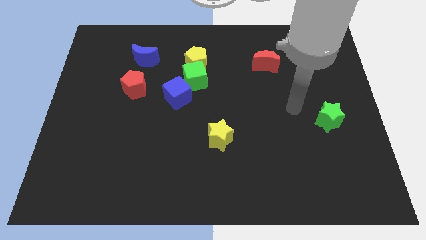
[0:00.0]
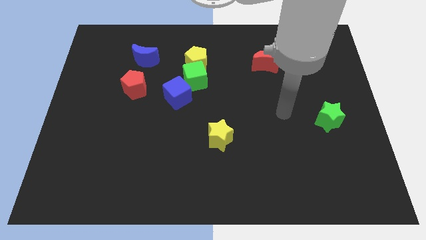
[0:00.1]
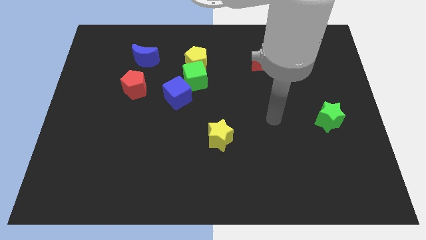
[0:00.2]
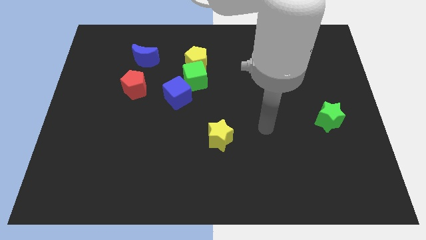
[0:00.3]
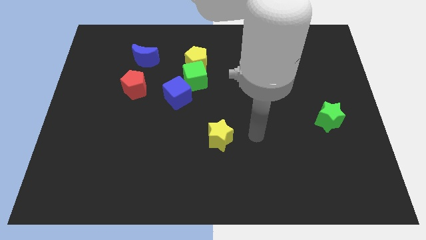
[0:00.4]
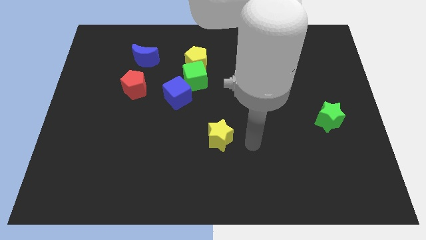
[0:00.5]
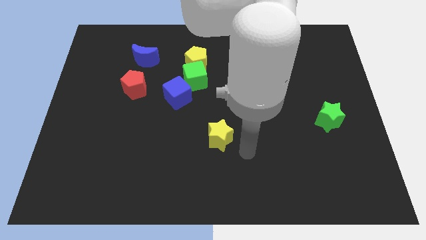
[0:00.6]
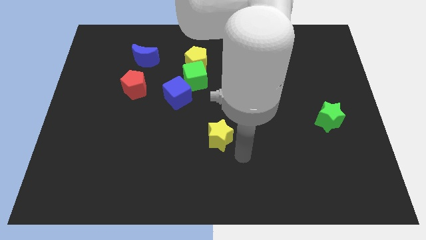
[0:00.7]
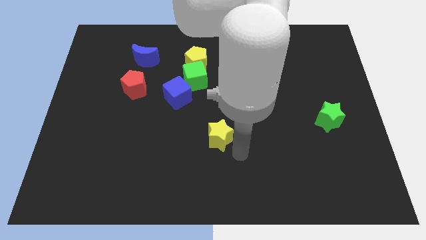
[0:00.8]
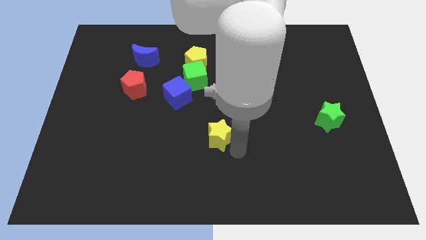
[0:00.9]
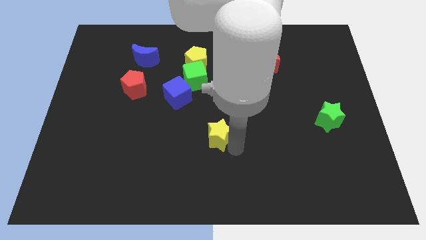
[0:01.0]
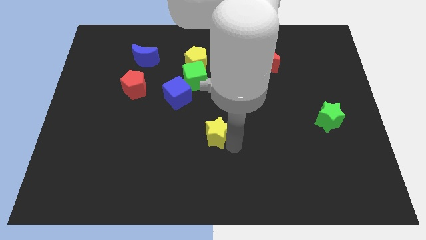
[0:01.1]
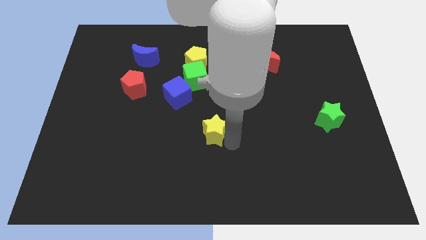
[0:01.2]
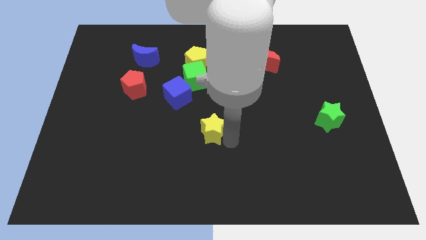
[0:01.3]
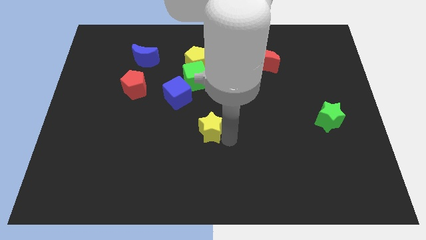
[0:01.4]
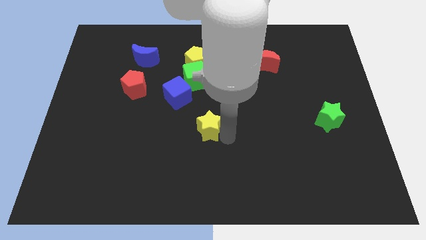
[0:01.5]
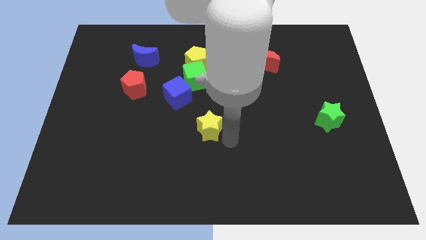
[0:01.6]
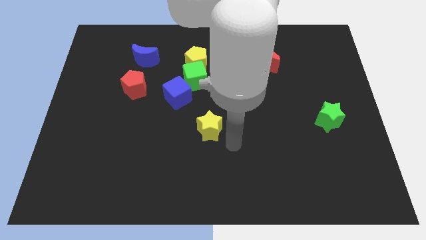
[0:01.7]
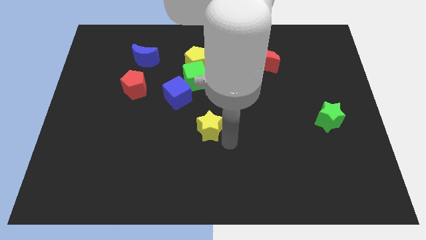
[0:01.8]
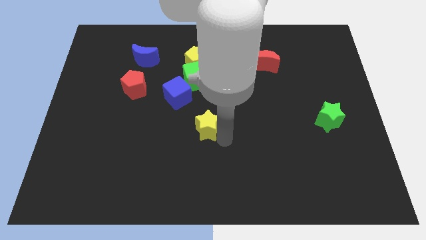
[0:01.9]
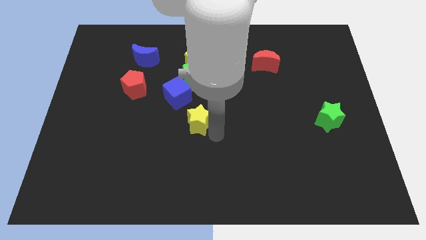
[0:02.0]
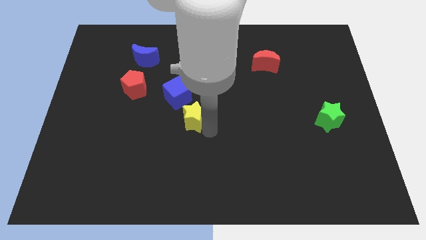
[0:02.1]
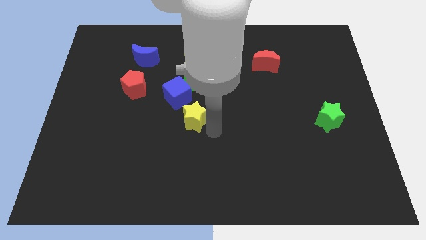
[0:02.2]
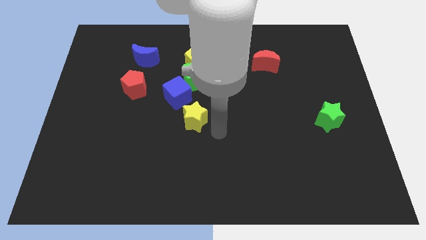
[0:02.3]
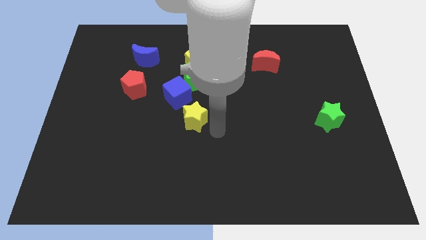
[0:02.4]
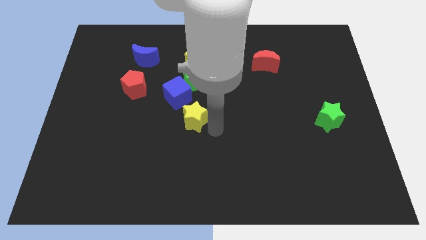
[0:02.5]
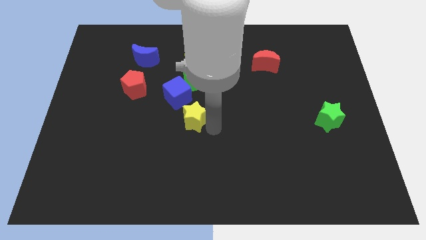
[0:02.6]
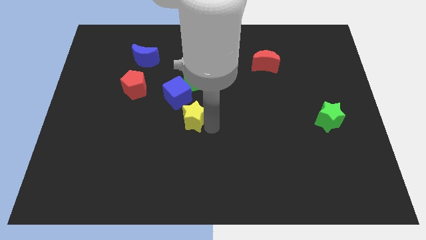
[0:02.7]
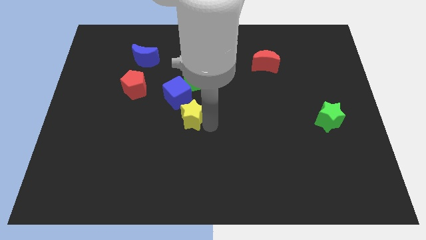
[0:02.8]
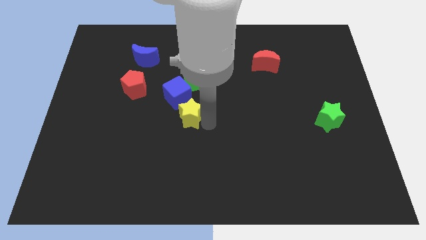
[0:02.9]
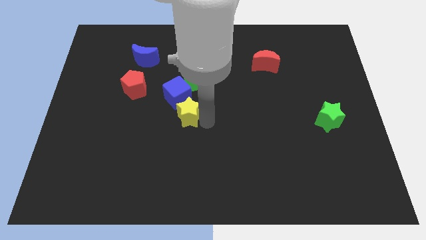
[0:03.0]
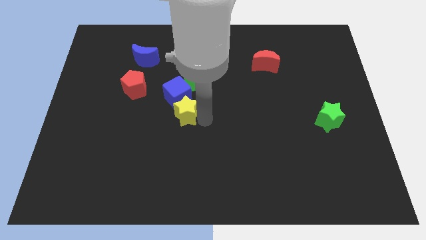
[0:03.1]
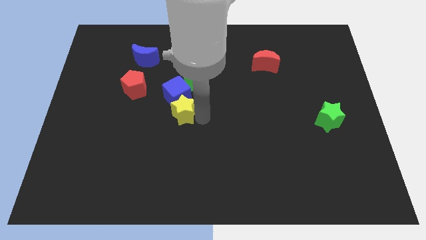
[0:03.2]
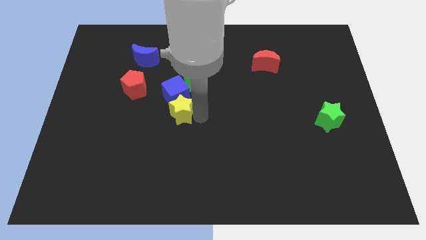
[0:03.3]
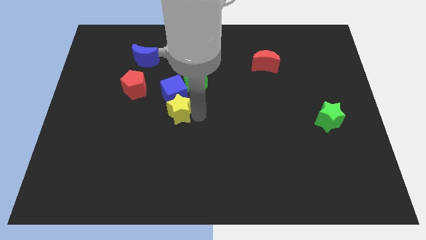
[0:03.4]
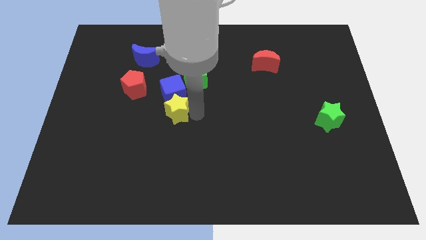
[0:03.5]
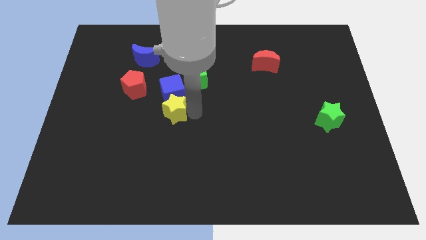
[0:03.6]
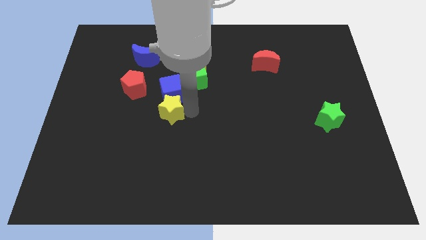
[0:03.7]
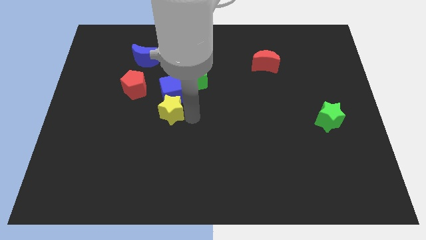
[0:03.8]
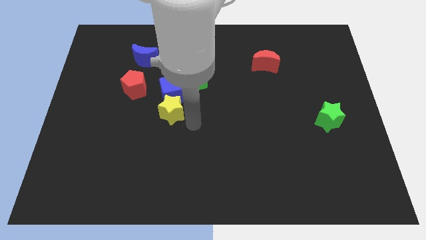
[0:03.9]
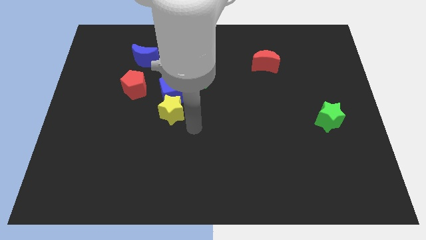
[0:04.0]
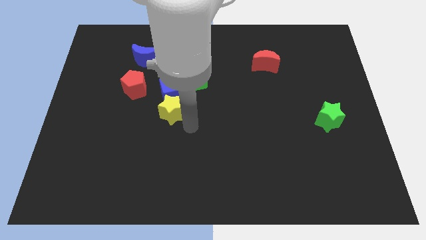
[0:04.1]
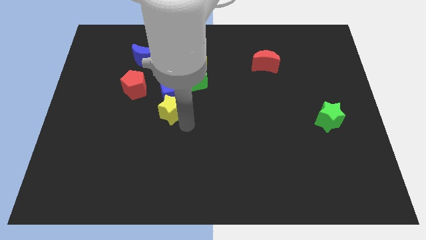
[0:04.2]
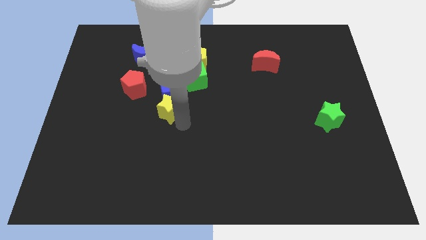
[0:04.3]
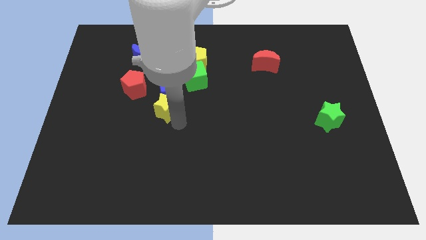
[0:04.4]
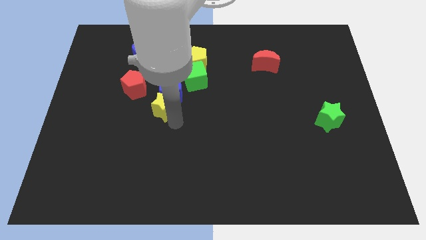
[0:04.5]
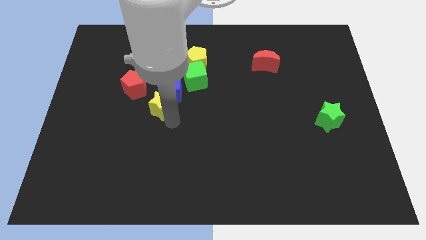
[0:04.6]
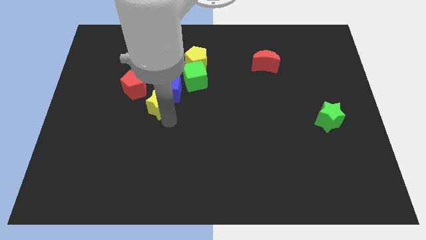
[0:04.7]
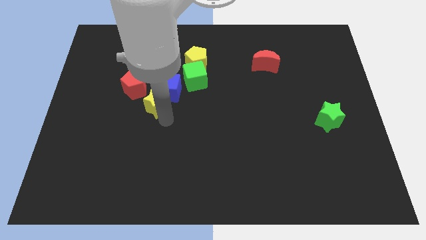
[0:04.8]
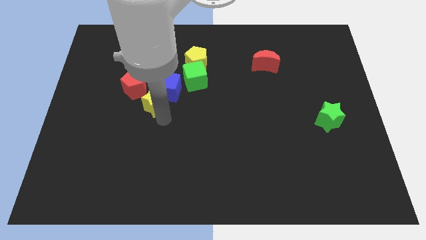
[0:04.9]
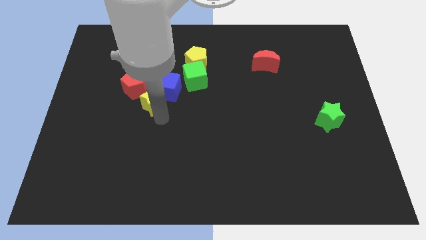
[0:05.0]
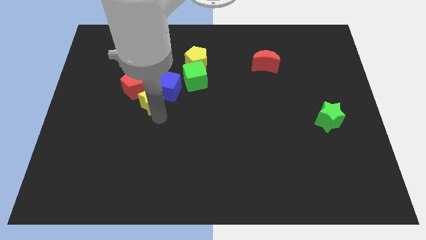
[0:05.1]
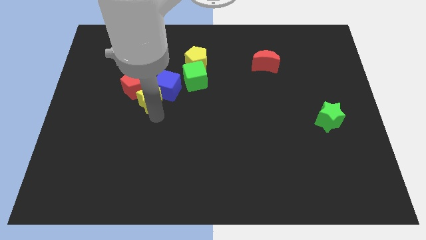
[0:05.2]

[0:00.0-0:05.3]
slide the yellow star towards the red pentagon

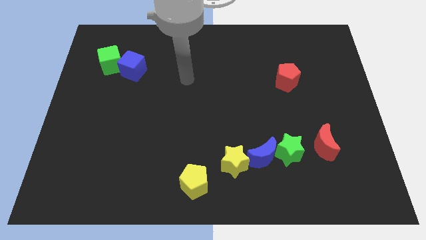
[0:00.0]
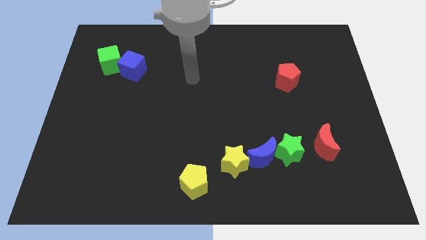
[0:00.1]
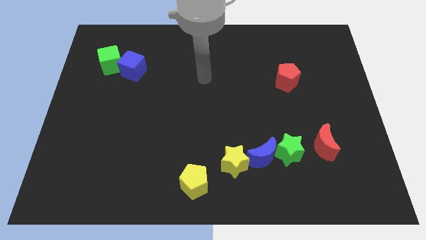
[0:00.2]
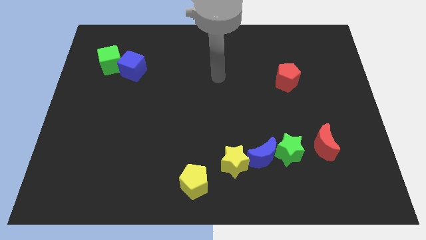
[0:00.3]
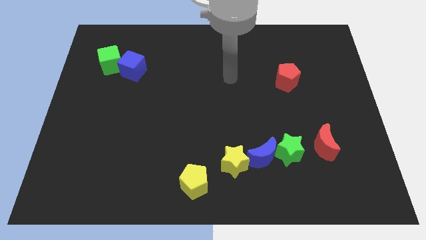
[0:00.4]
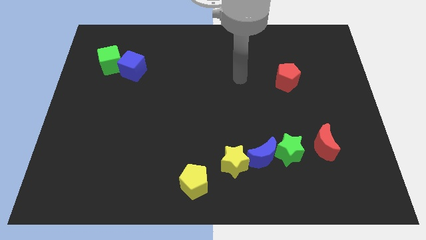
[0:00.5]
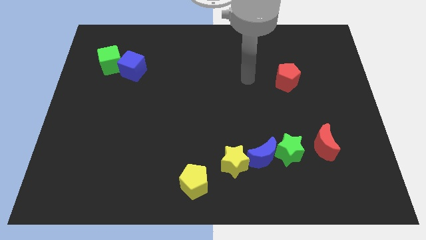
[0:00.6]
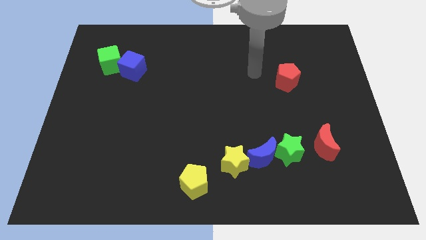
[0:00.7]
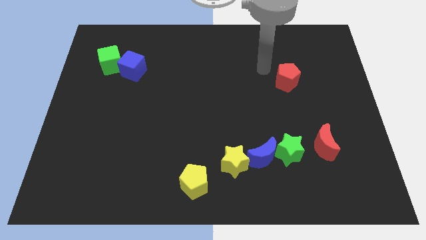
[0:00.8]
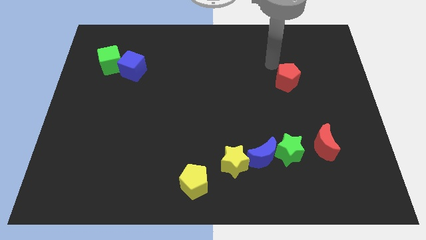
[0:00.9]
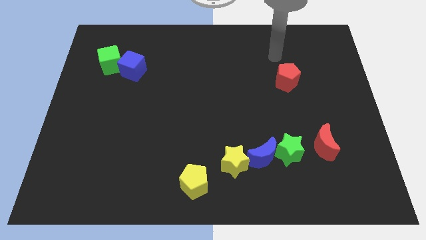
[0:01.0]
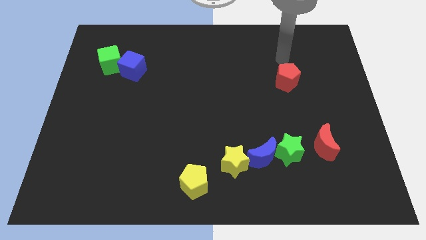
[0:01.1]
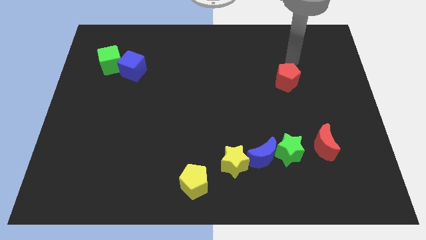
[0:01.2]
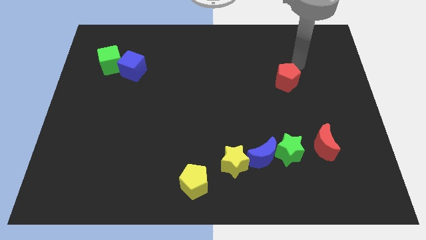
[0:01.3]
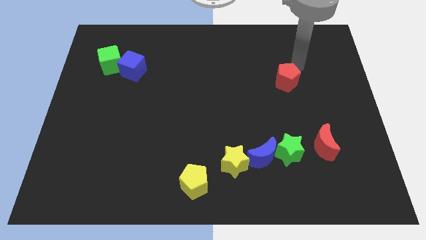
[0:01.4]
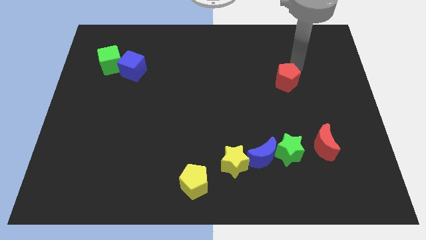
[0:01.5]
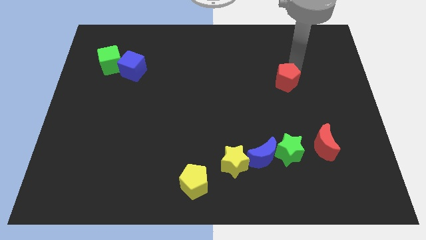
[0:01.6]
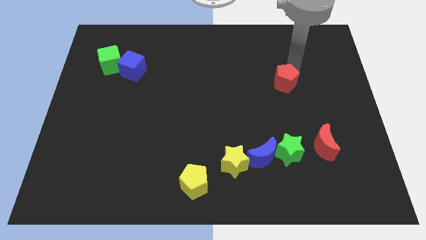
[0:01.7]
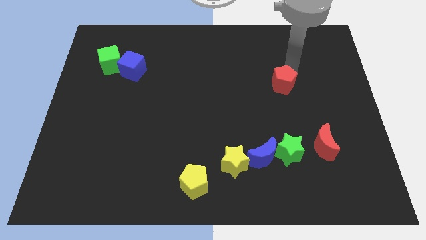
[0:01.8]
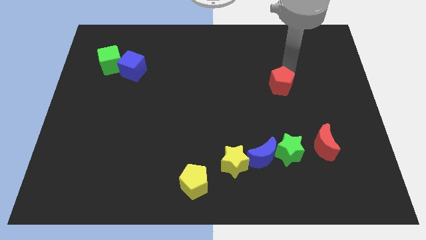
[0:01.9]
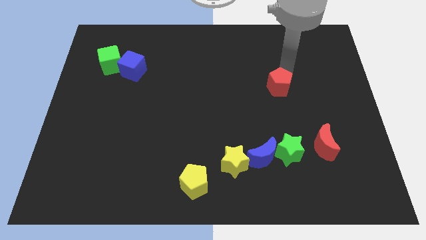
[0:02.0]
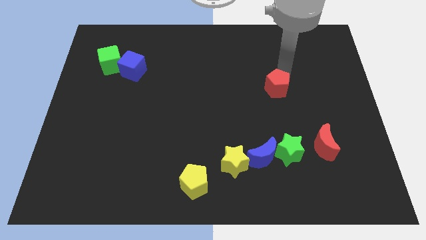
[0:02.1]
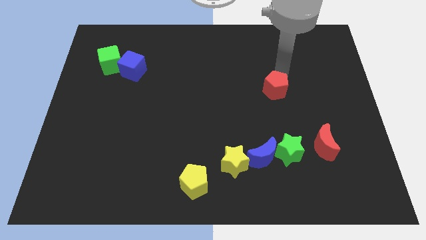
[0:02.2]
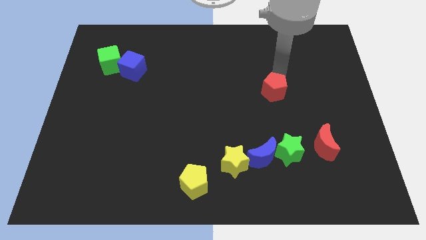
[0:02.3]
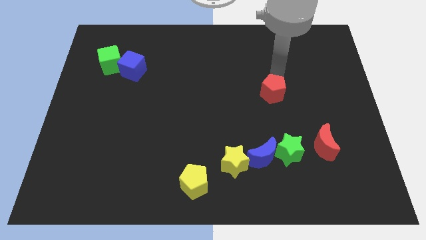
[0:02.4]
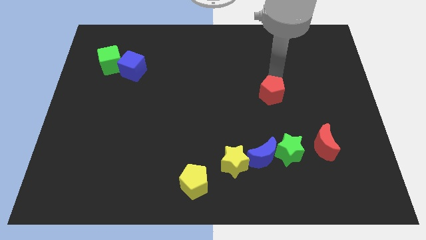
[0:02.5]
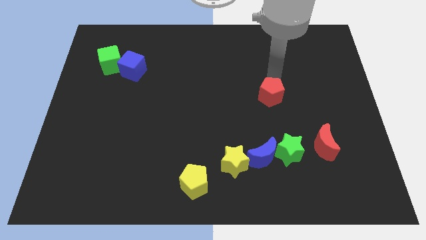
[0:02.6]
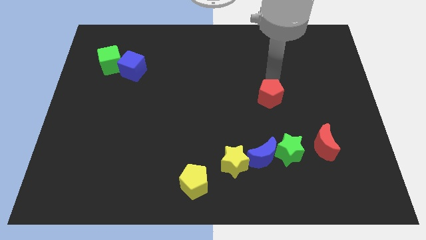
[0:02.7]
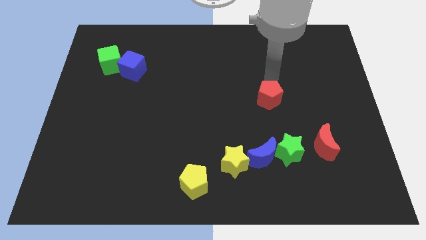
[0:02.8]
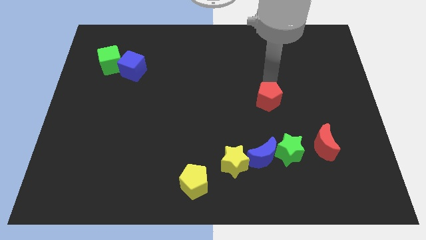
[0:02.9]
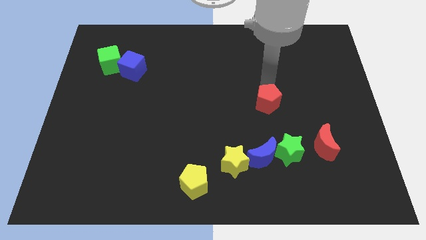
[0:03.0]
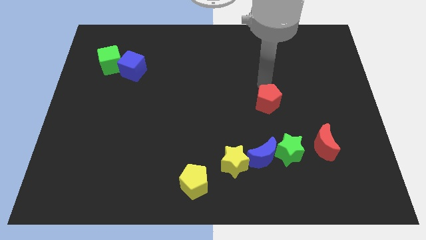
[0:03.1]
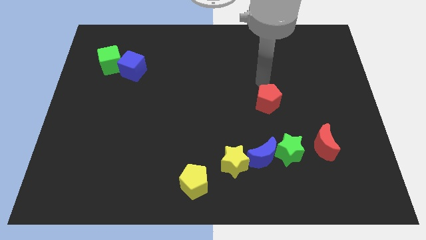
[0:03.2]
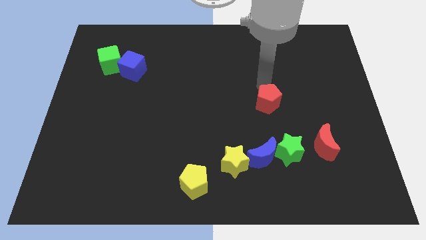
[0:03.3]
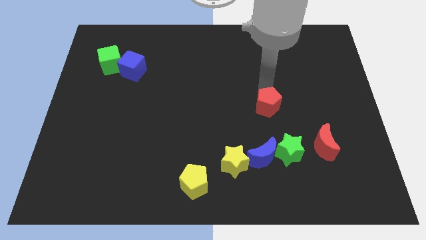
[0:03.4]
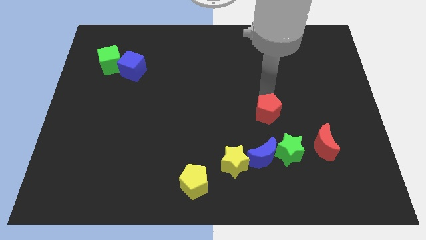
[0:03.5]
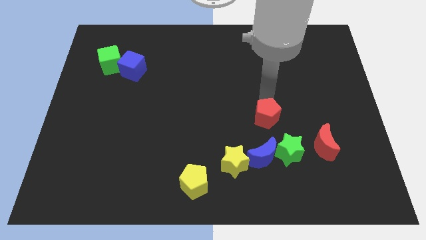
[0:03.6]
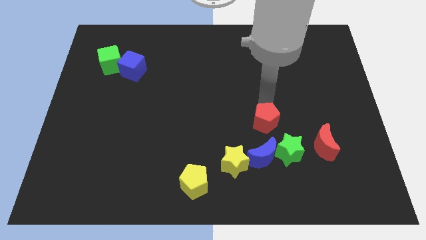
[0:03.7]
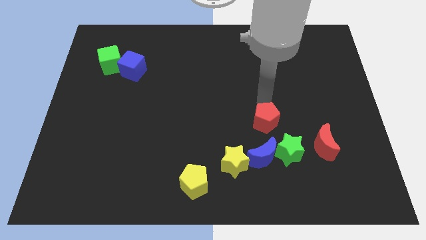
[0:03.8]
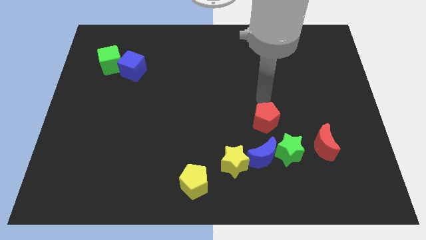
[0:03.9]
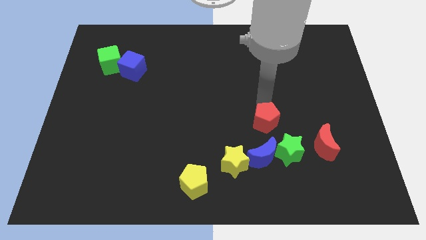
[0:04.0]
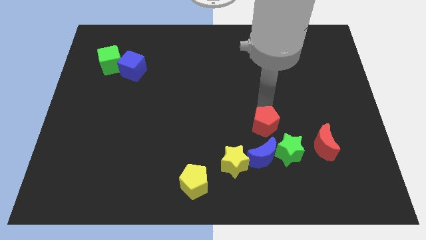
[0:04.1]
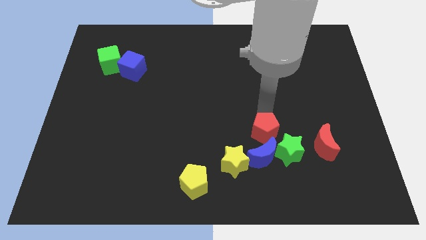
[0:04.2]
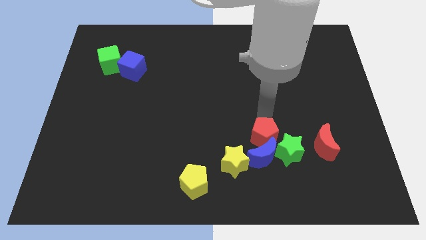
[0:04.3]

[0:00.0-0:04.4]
push the red pentagon to the blue moon
